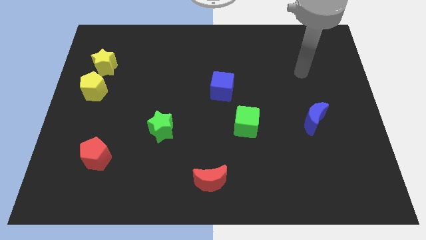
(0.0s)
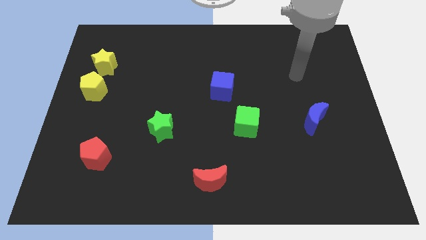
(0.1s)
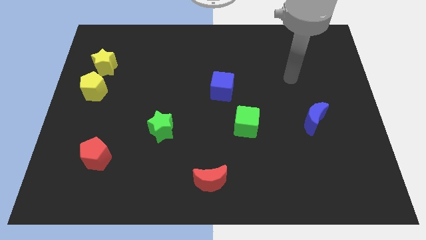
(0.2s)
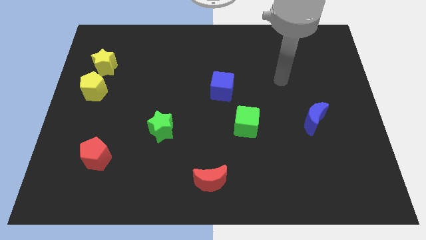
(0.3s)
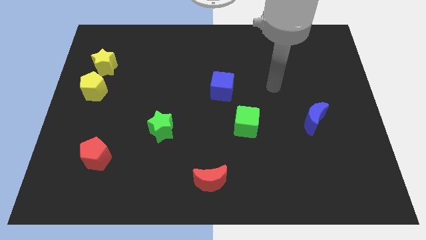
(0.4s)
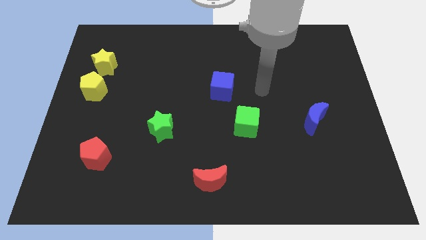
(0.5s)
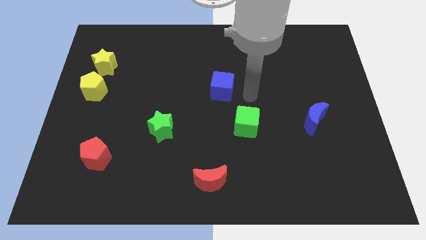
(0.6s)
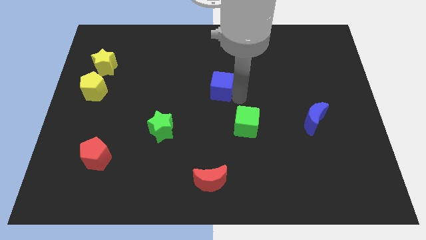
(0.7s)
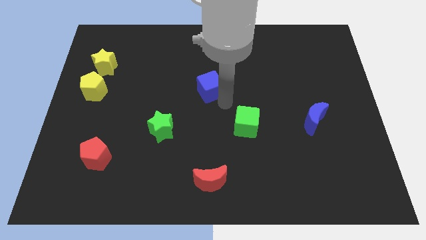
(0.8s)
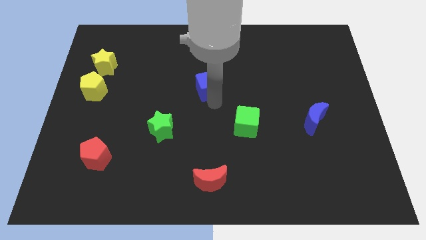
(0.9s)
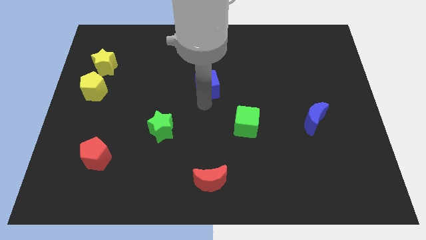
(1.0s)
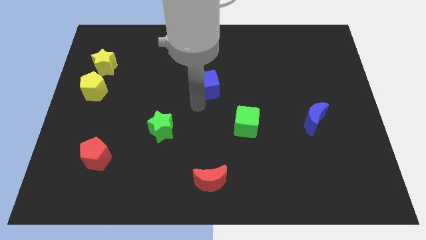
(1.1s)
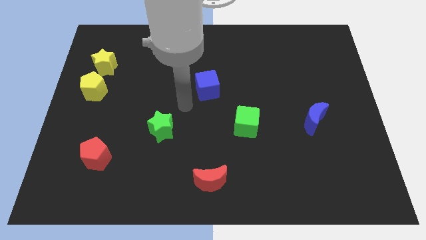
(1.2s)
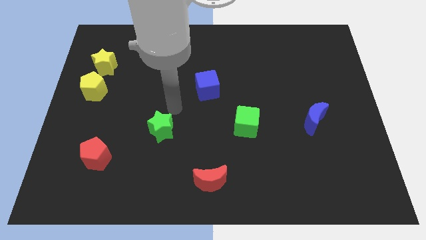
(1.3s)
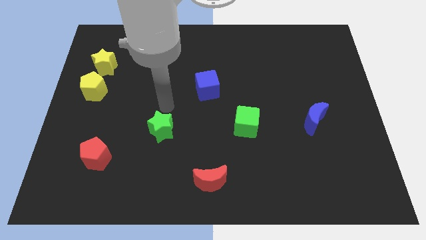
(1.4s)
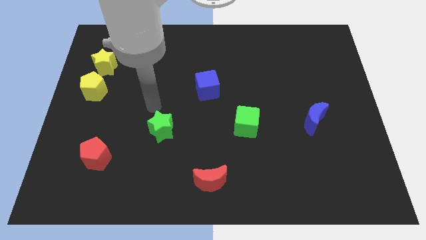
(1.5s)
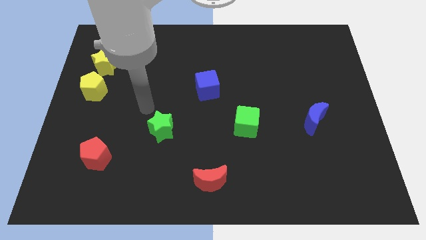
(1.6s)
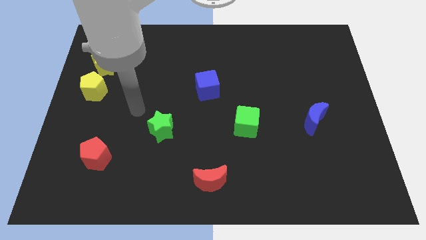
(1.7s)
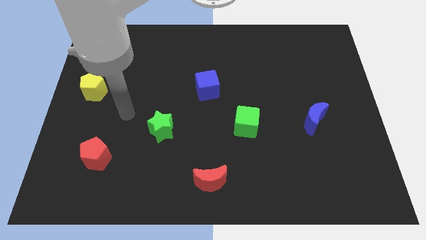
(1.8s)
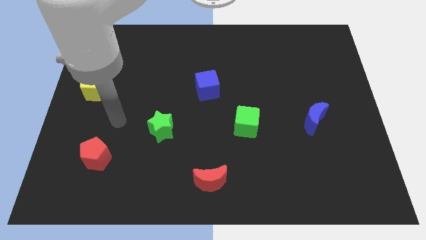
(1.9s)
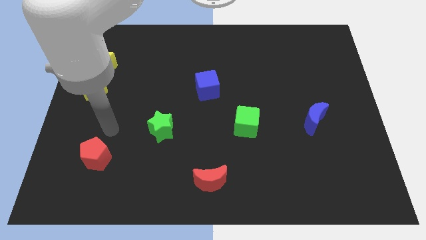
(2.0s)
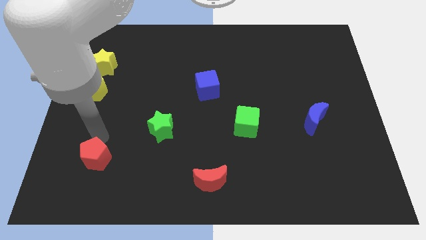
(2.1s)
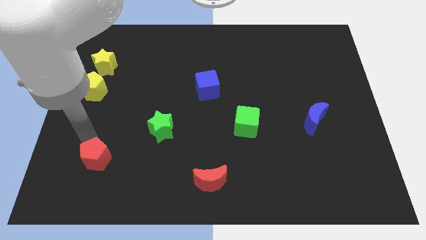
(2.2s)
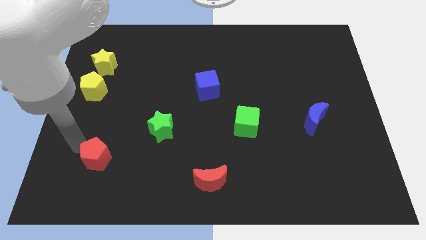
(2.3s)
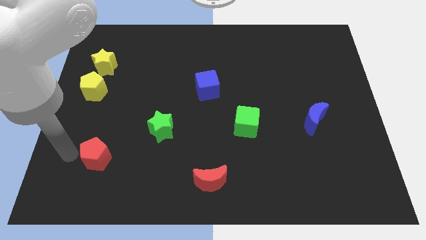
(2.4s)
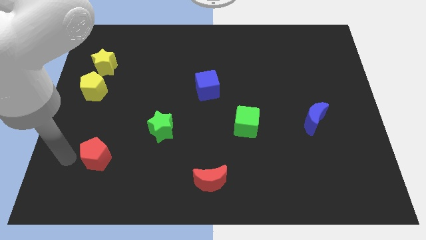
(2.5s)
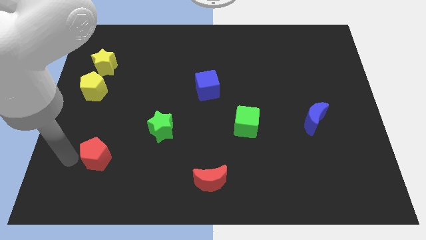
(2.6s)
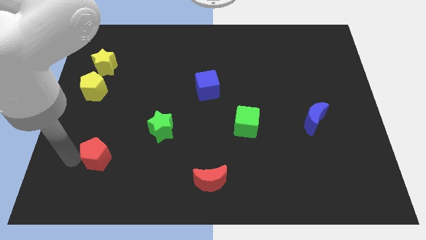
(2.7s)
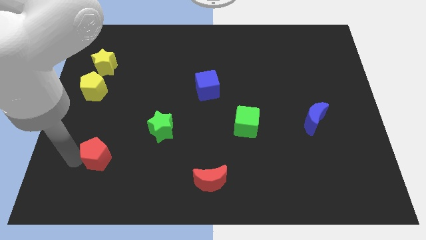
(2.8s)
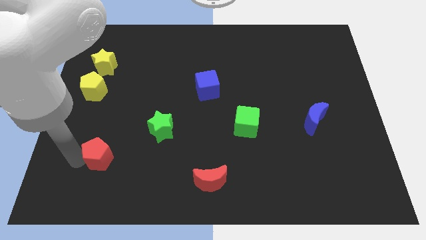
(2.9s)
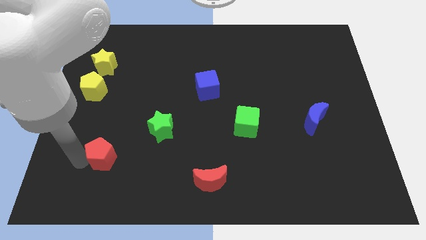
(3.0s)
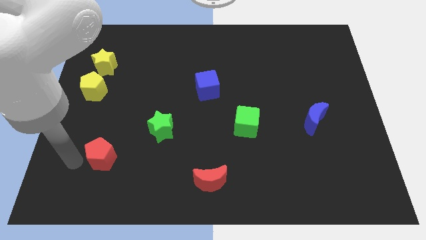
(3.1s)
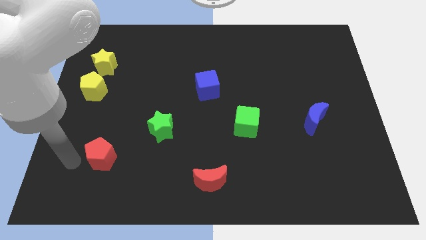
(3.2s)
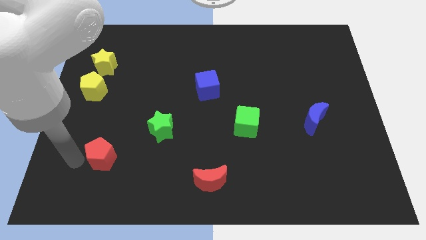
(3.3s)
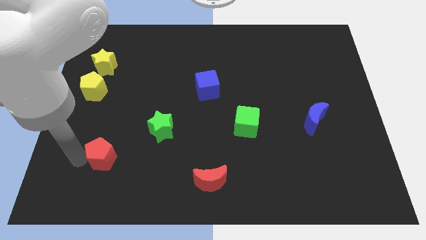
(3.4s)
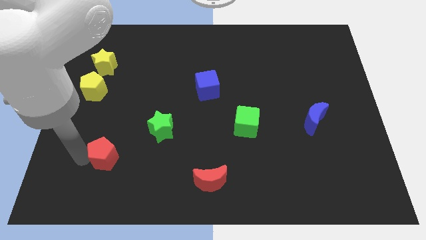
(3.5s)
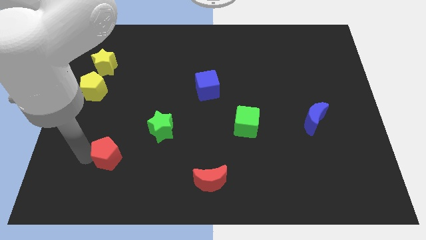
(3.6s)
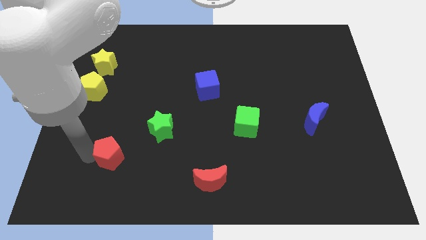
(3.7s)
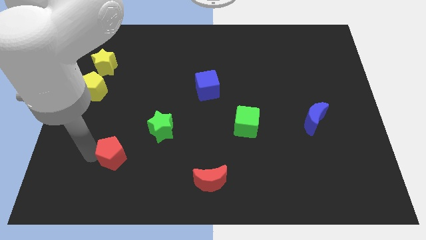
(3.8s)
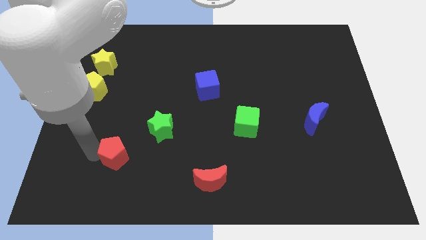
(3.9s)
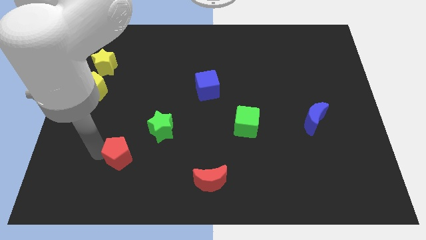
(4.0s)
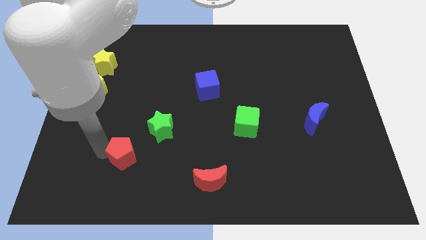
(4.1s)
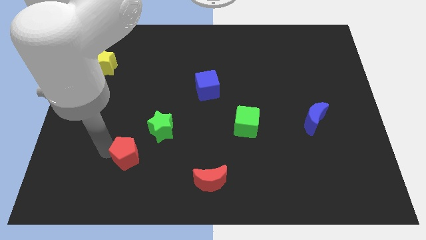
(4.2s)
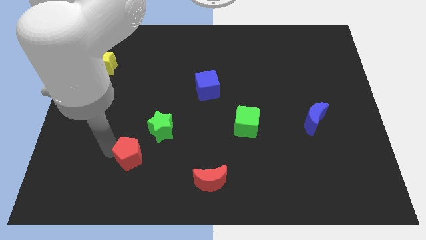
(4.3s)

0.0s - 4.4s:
slide the red pentagon to the right a bit

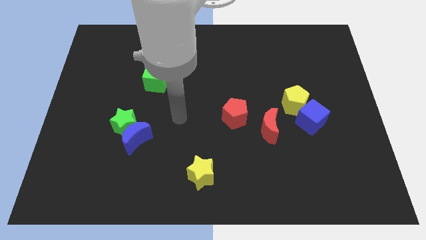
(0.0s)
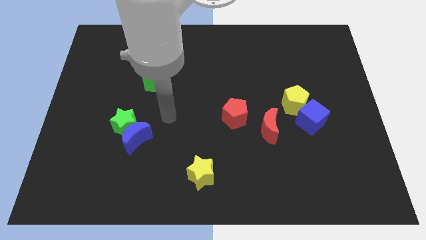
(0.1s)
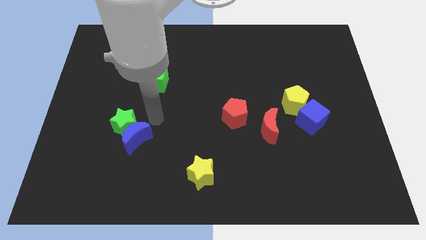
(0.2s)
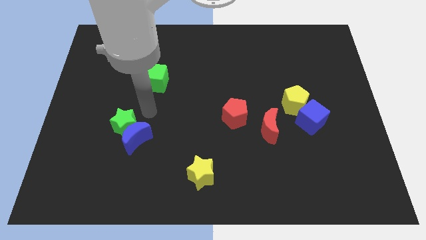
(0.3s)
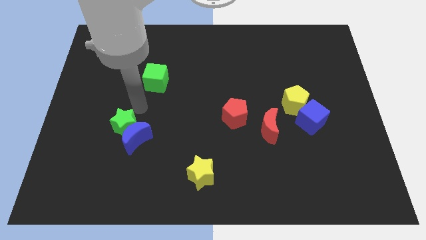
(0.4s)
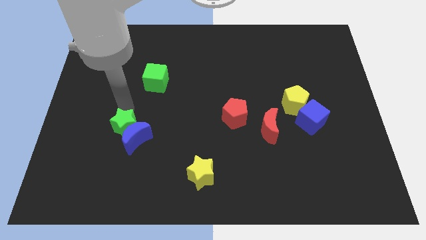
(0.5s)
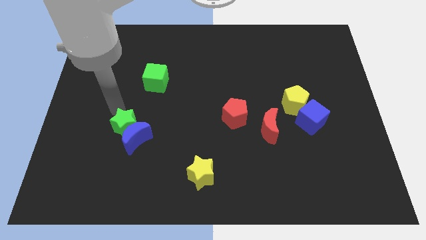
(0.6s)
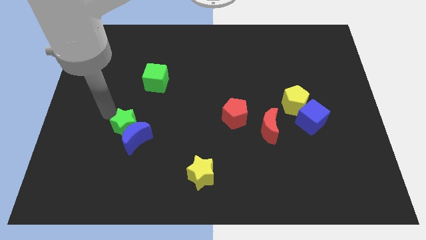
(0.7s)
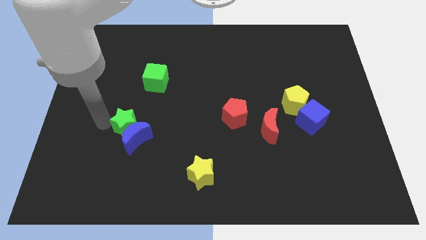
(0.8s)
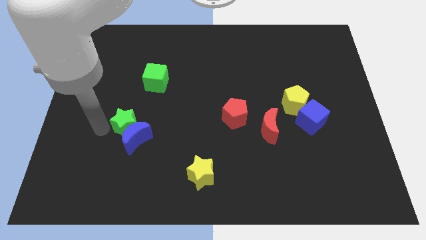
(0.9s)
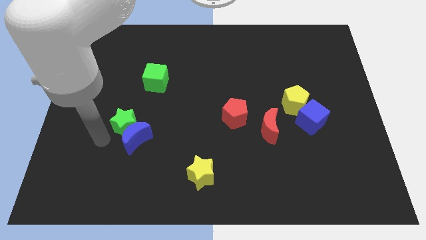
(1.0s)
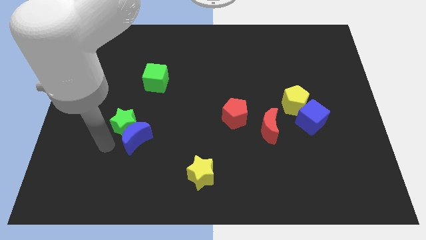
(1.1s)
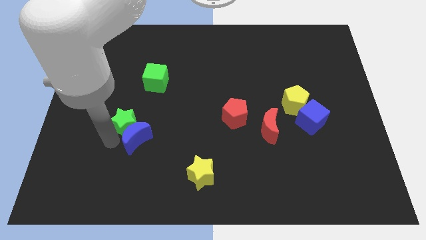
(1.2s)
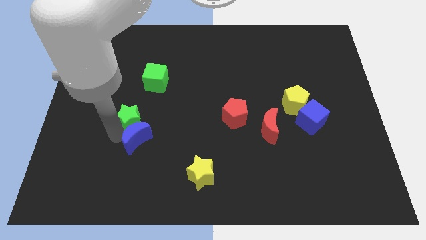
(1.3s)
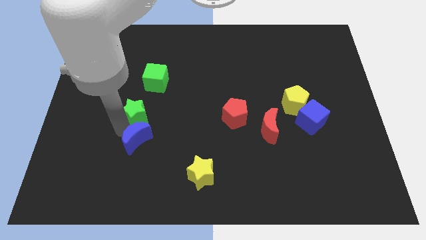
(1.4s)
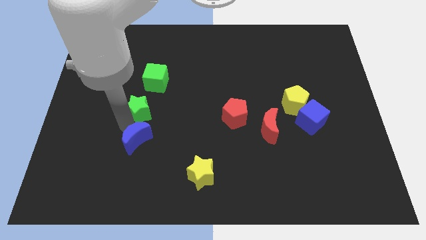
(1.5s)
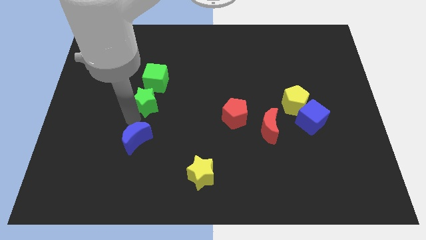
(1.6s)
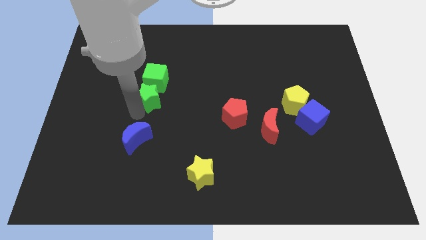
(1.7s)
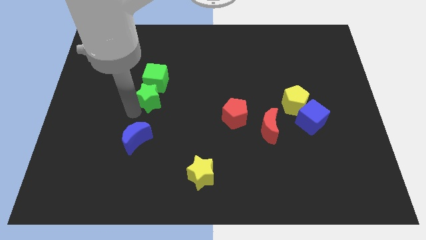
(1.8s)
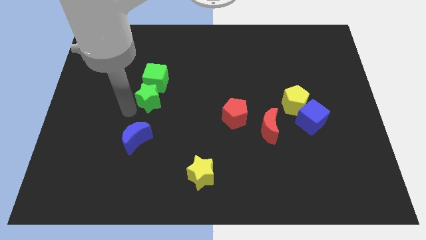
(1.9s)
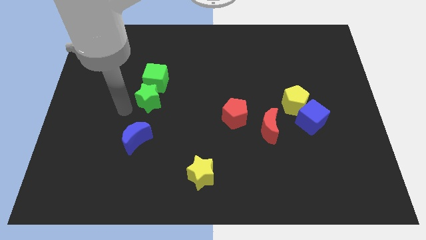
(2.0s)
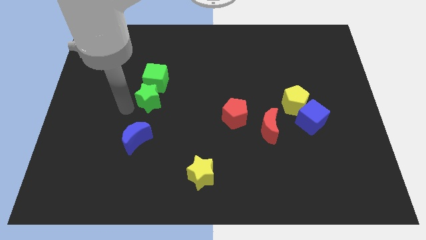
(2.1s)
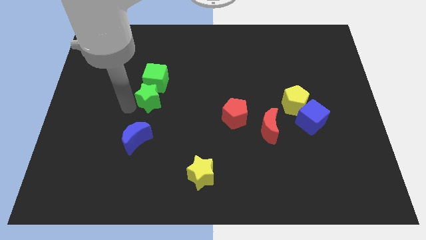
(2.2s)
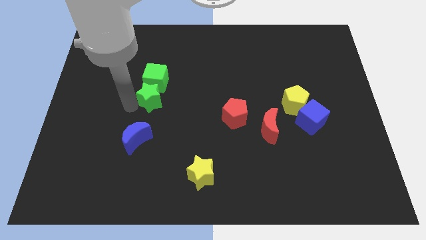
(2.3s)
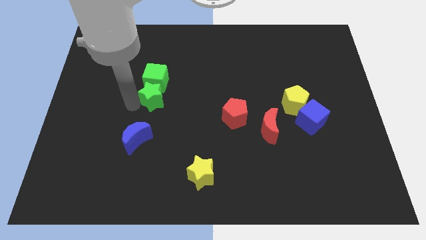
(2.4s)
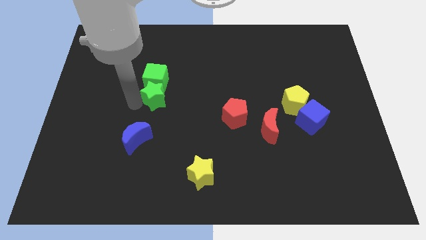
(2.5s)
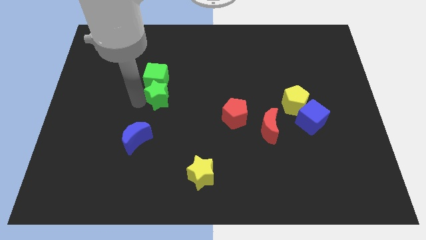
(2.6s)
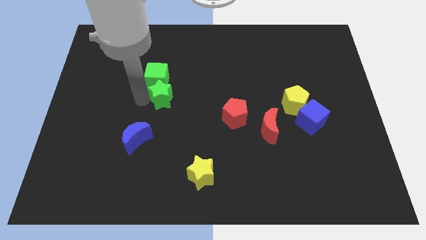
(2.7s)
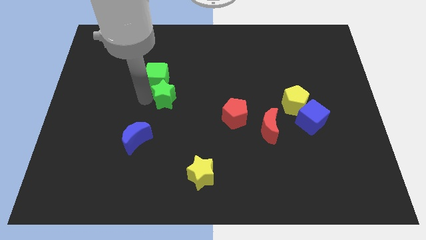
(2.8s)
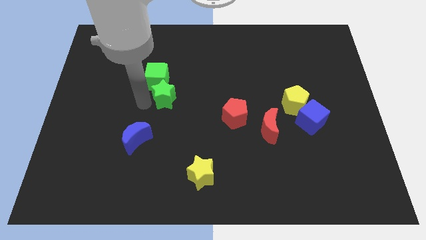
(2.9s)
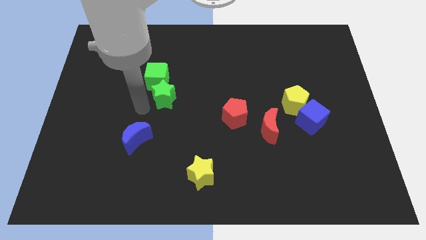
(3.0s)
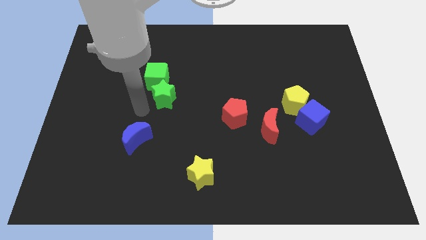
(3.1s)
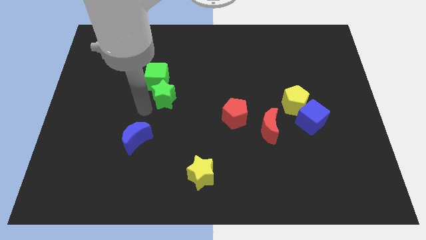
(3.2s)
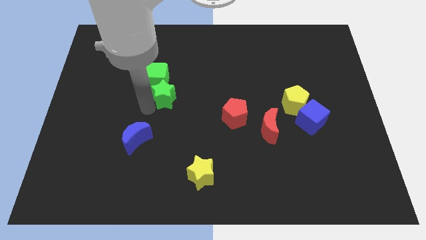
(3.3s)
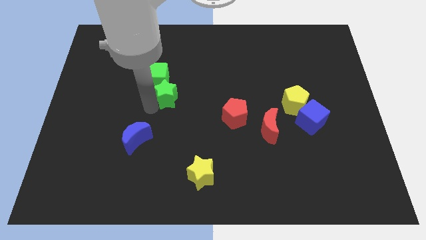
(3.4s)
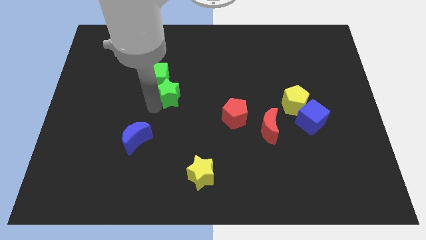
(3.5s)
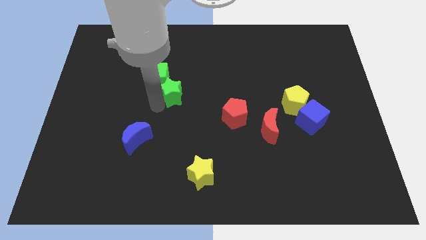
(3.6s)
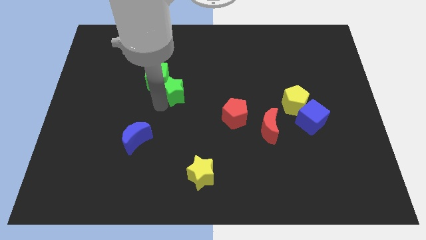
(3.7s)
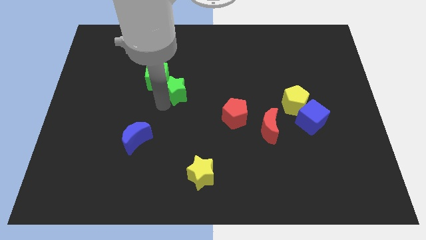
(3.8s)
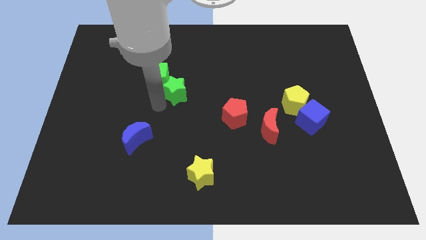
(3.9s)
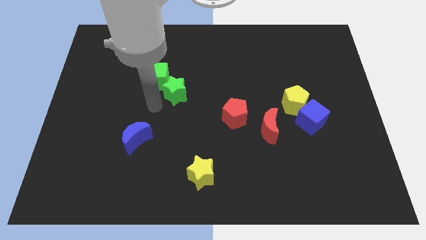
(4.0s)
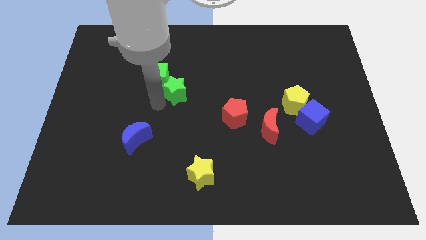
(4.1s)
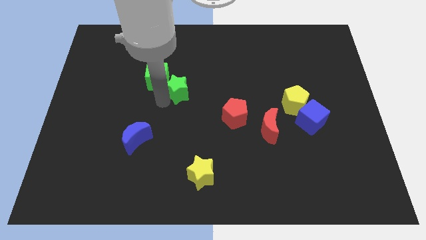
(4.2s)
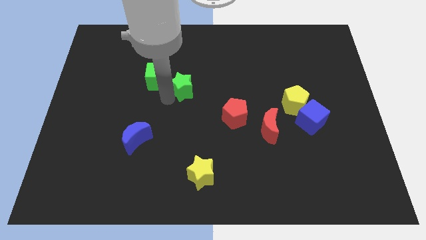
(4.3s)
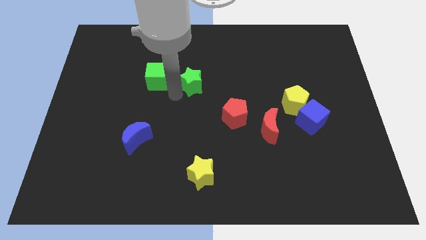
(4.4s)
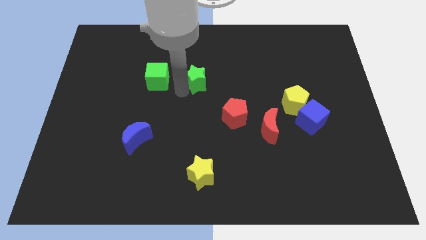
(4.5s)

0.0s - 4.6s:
slide the green star up and to the right diagonally
